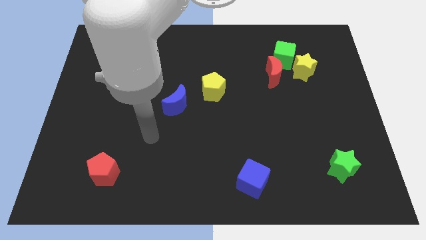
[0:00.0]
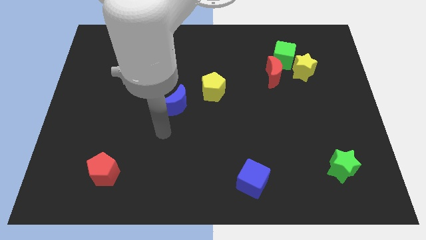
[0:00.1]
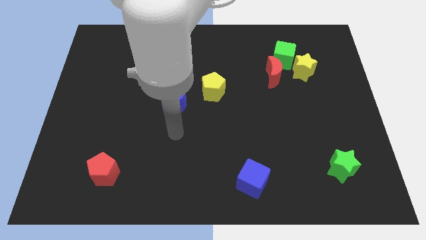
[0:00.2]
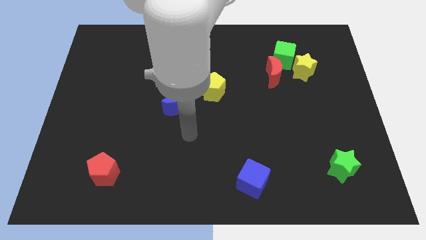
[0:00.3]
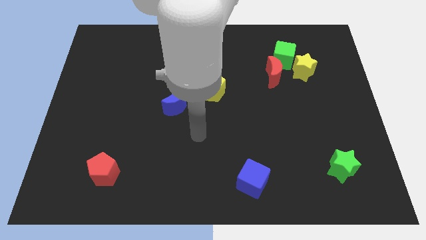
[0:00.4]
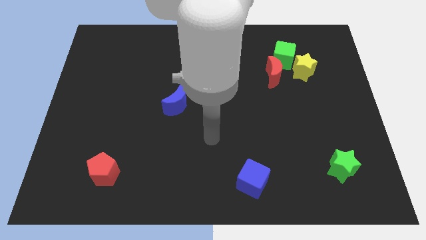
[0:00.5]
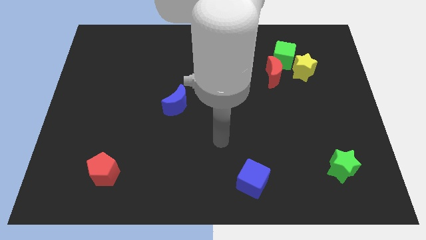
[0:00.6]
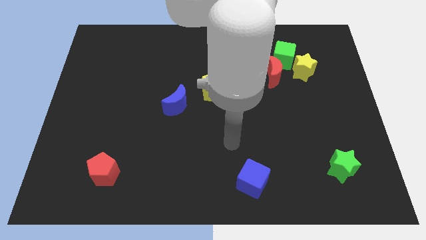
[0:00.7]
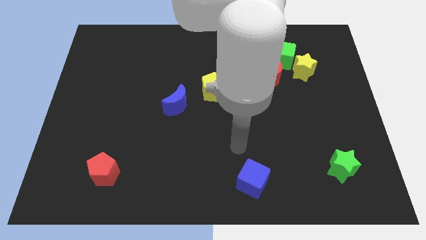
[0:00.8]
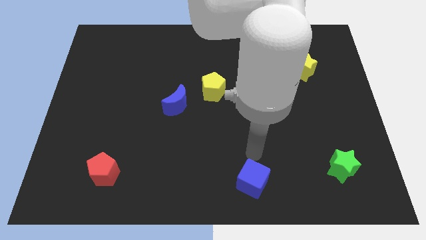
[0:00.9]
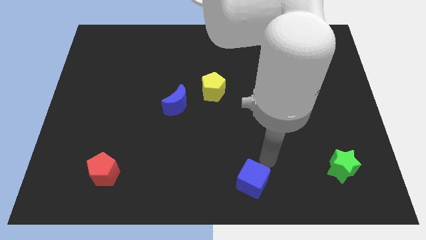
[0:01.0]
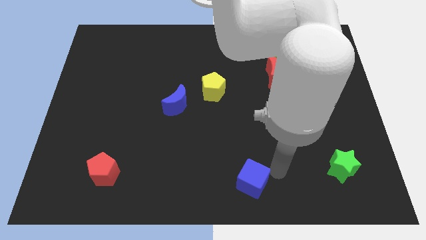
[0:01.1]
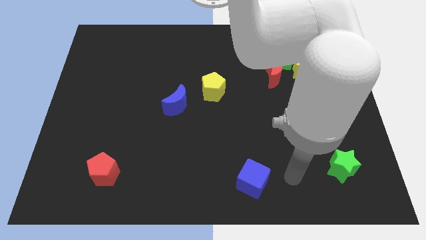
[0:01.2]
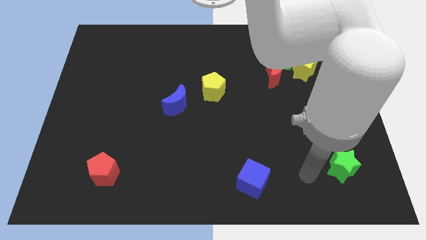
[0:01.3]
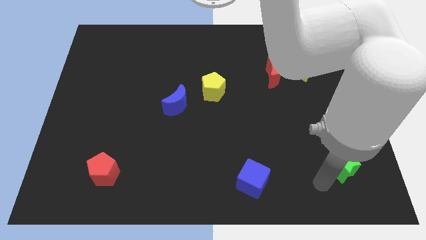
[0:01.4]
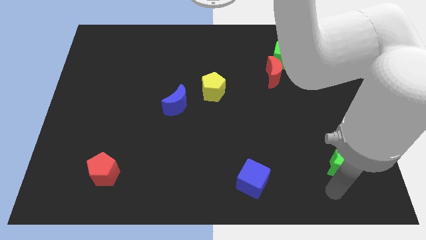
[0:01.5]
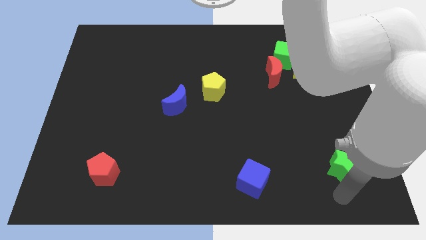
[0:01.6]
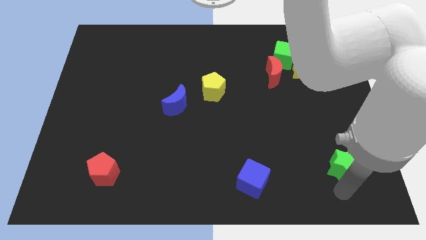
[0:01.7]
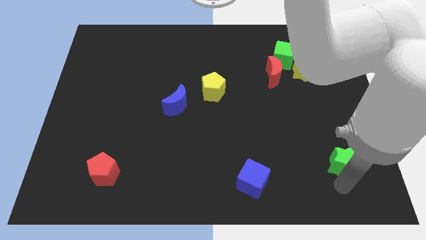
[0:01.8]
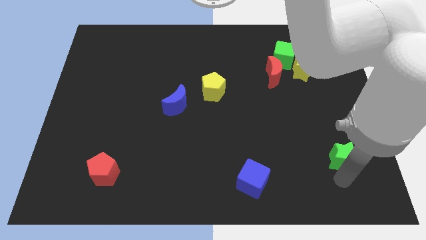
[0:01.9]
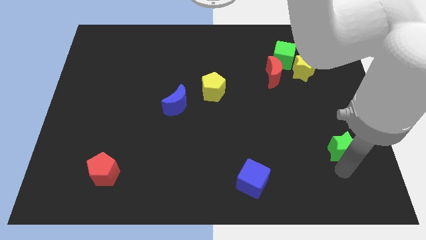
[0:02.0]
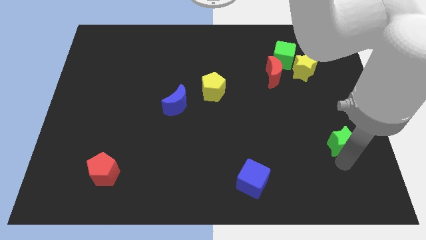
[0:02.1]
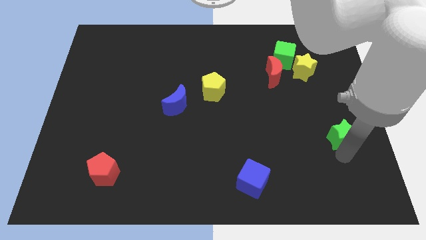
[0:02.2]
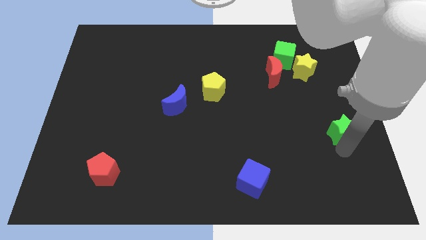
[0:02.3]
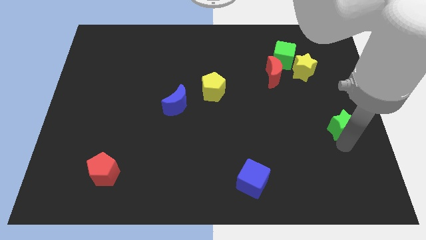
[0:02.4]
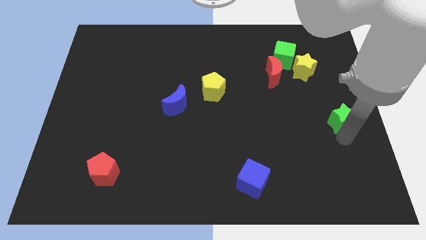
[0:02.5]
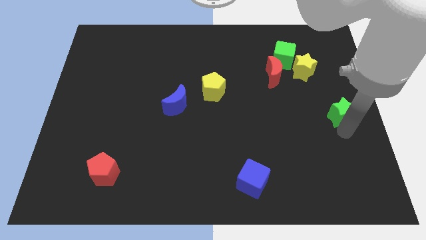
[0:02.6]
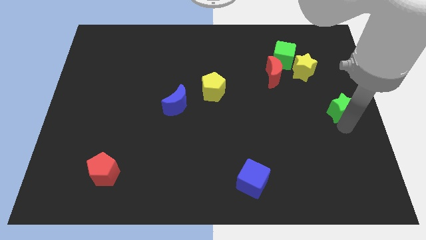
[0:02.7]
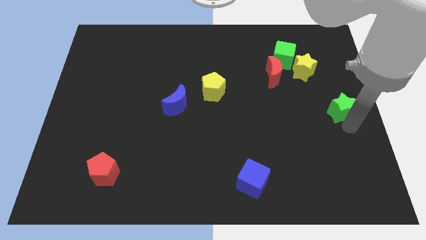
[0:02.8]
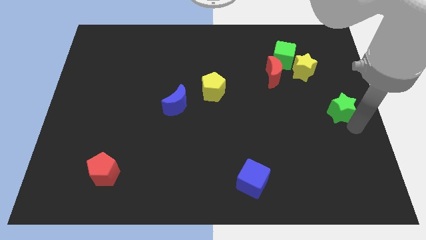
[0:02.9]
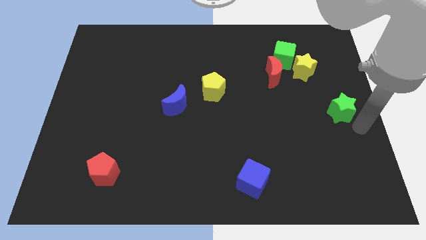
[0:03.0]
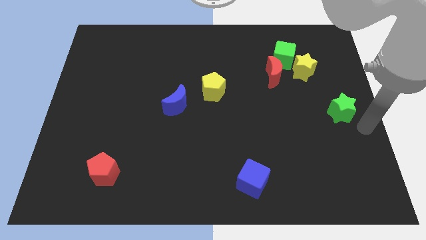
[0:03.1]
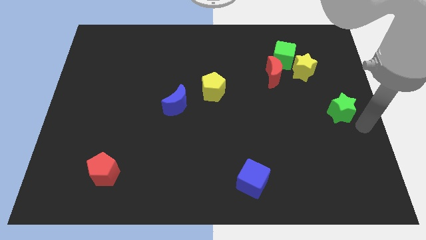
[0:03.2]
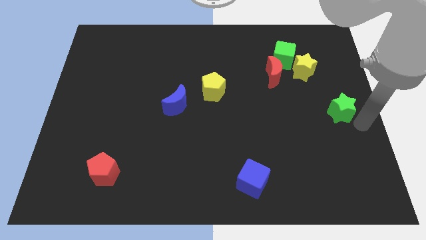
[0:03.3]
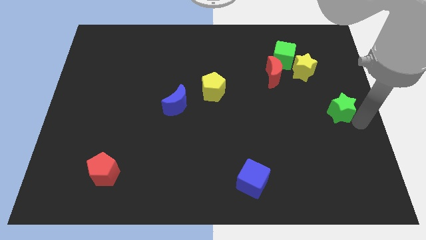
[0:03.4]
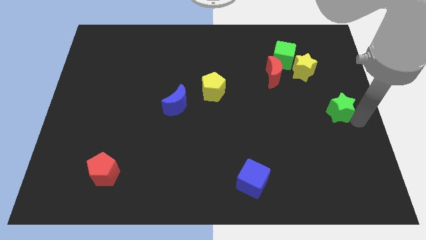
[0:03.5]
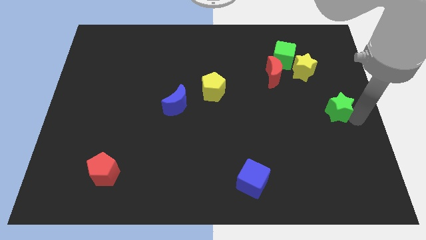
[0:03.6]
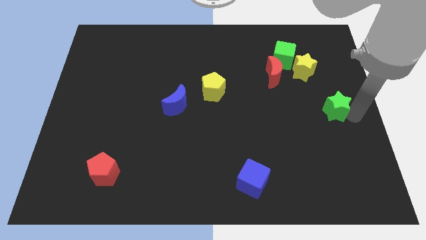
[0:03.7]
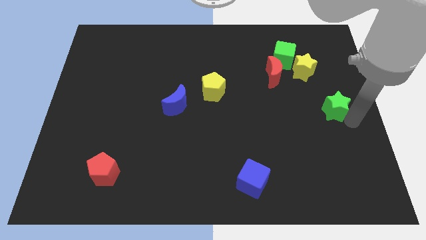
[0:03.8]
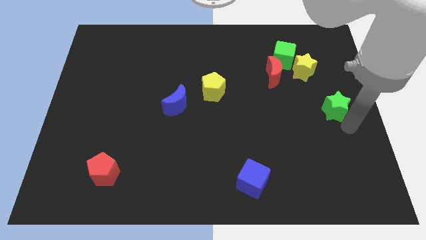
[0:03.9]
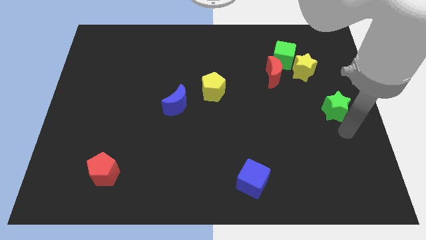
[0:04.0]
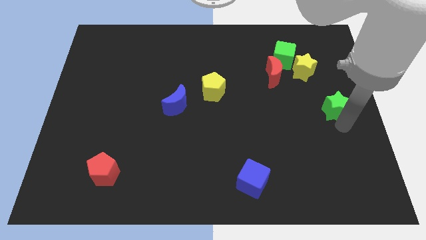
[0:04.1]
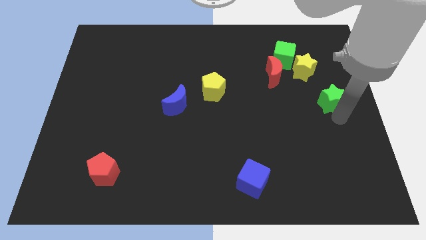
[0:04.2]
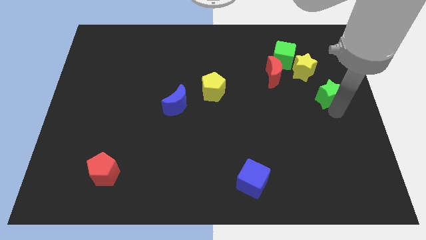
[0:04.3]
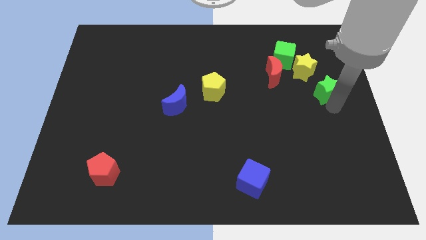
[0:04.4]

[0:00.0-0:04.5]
move the green star upwards

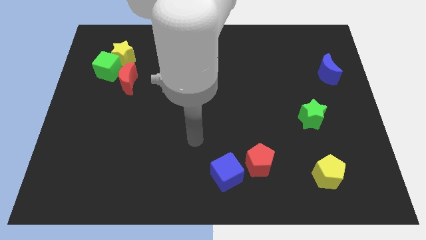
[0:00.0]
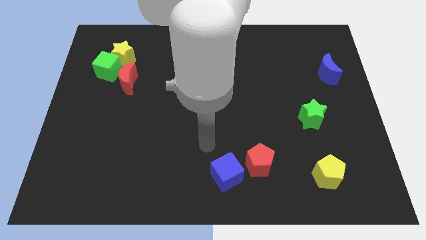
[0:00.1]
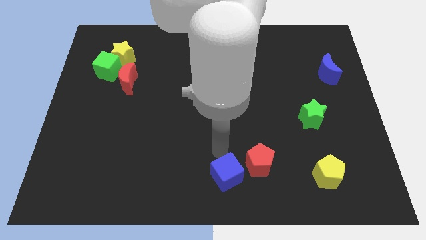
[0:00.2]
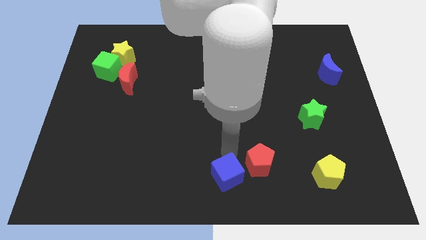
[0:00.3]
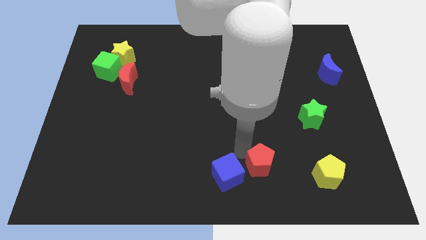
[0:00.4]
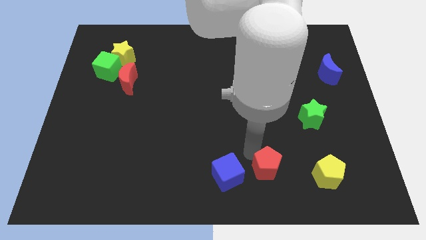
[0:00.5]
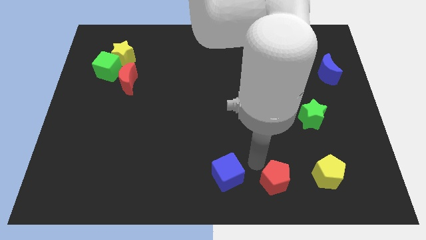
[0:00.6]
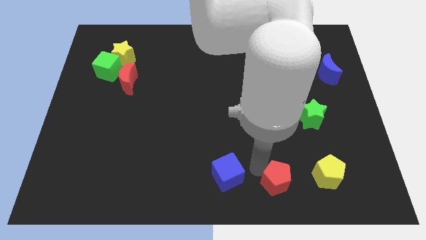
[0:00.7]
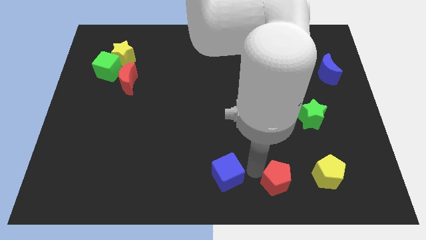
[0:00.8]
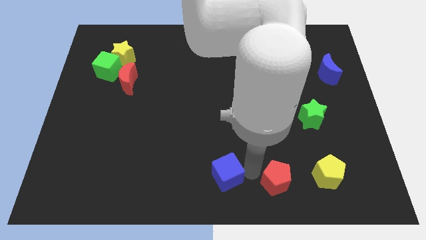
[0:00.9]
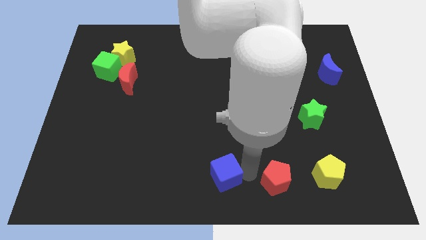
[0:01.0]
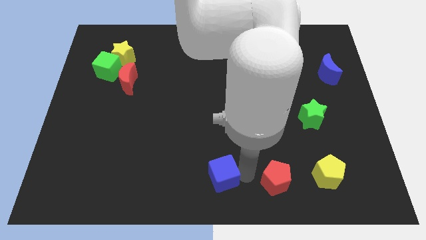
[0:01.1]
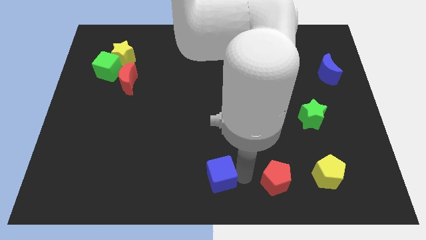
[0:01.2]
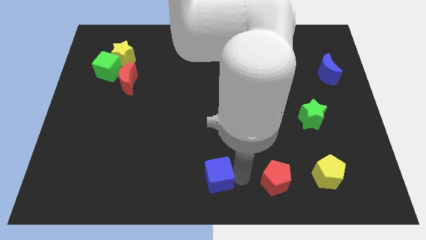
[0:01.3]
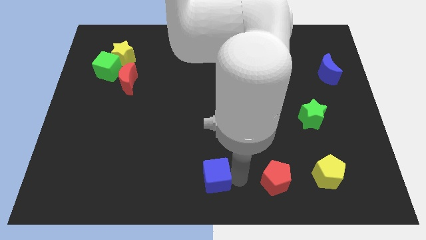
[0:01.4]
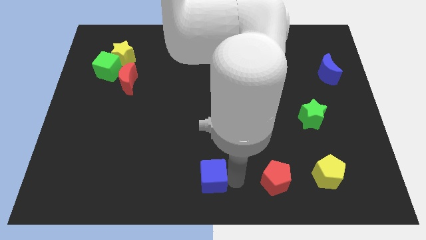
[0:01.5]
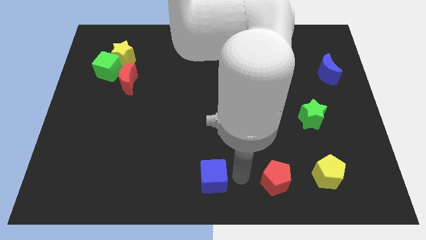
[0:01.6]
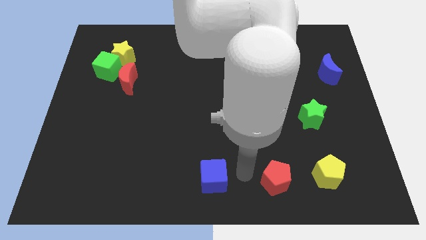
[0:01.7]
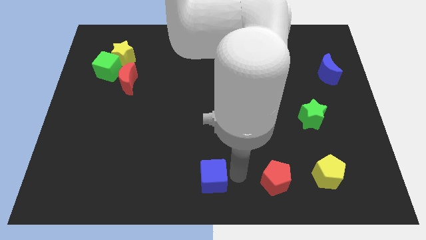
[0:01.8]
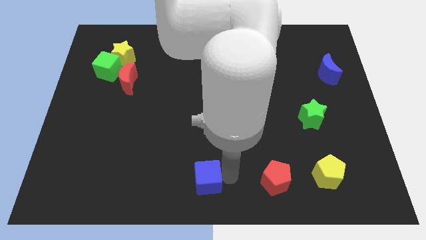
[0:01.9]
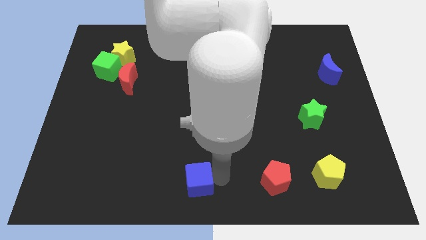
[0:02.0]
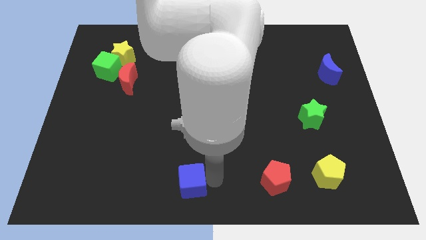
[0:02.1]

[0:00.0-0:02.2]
slide the blue cube a little to the left

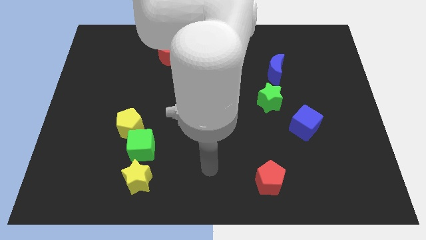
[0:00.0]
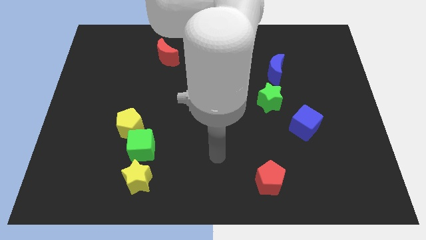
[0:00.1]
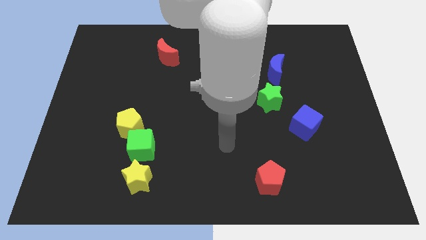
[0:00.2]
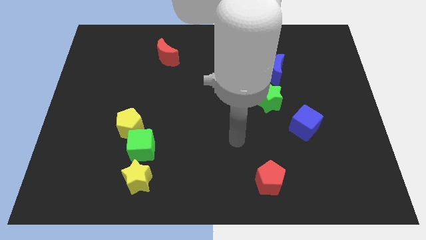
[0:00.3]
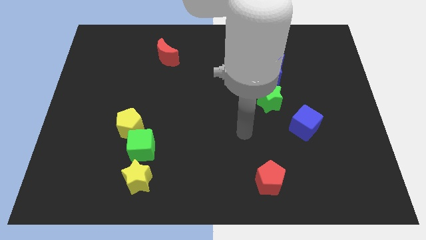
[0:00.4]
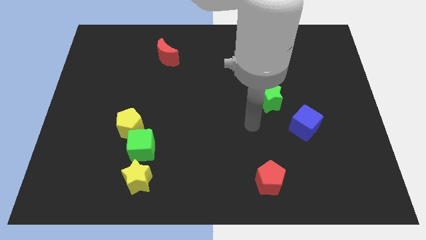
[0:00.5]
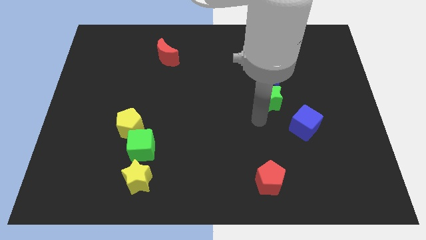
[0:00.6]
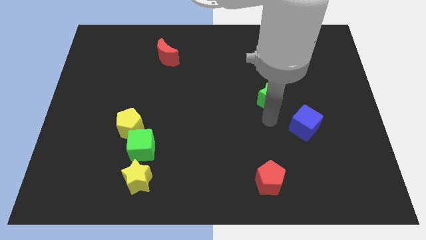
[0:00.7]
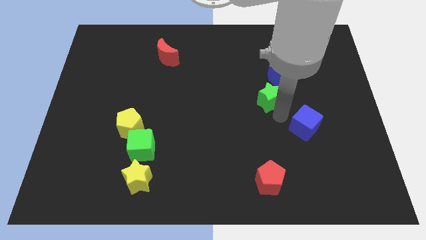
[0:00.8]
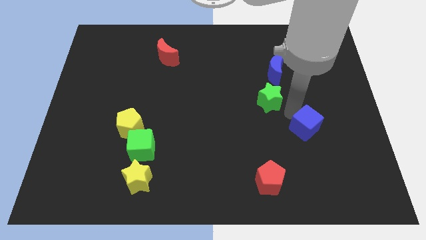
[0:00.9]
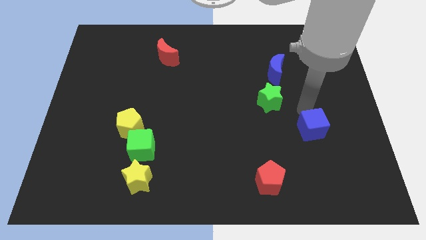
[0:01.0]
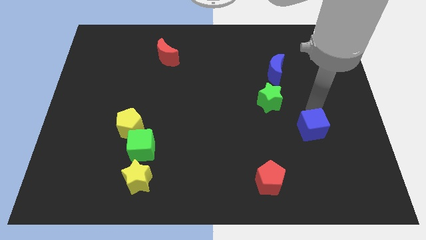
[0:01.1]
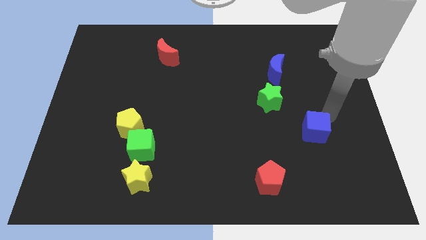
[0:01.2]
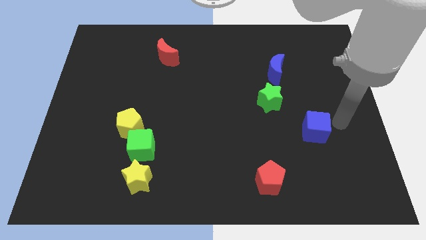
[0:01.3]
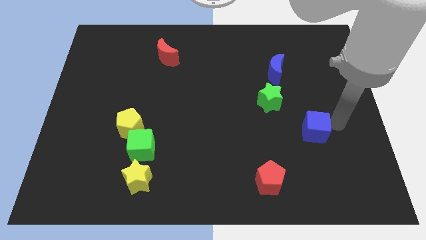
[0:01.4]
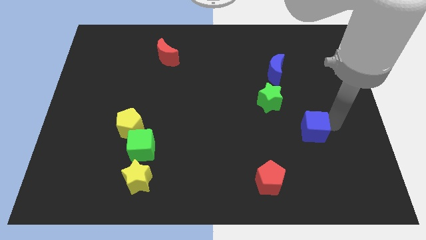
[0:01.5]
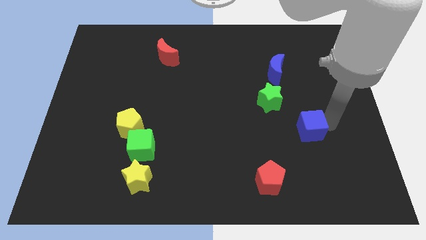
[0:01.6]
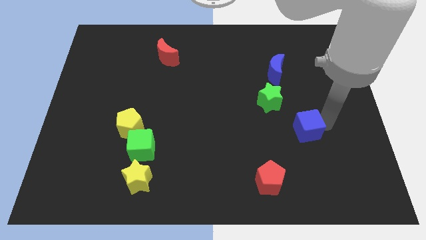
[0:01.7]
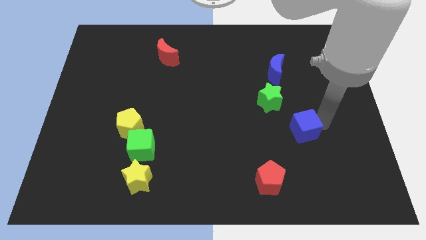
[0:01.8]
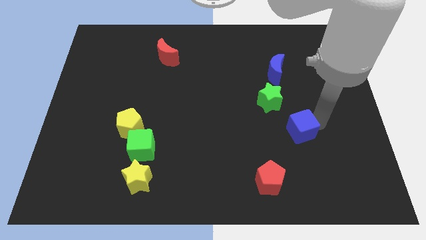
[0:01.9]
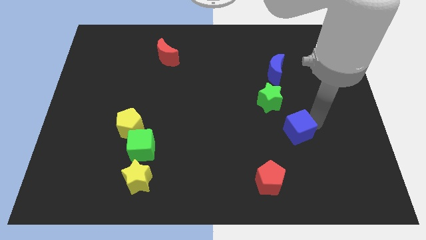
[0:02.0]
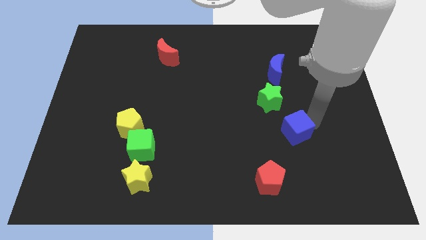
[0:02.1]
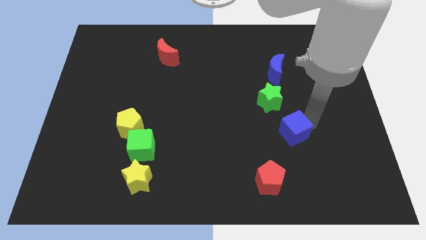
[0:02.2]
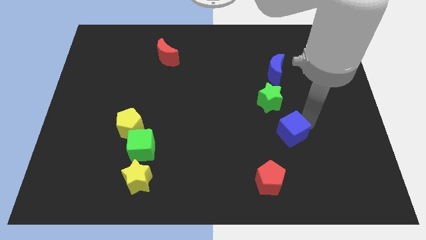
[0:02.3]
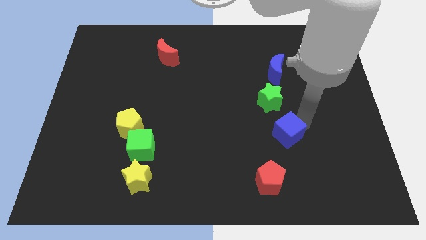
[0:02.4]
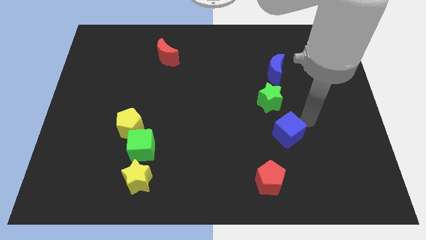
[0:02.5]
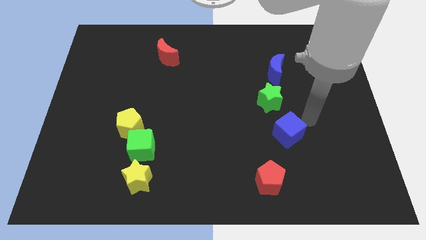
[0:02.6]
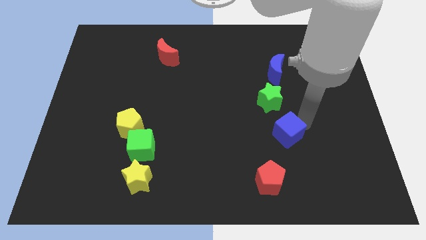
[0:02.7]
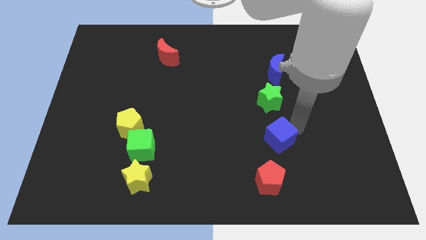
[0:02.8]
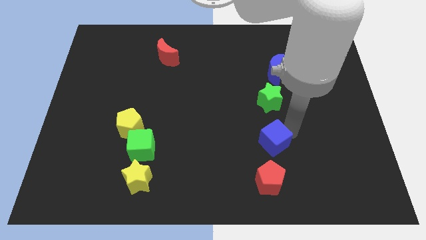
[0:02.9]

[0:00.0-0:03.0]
move the blue cube a little down and to the left
